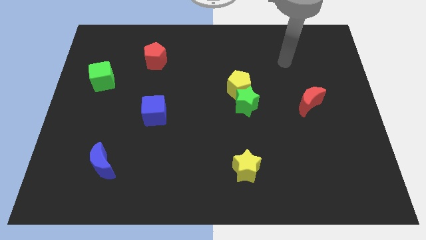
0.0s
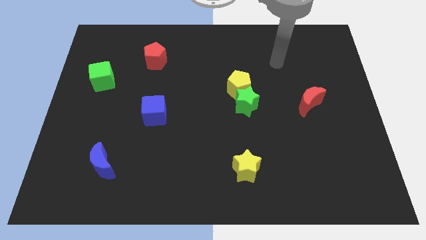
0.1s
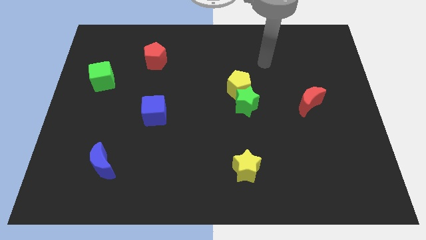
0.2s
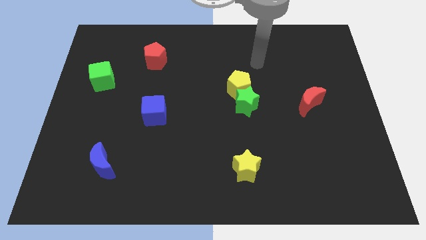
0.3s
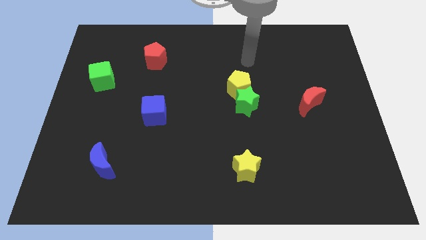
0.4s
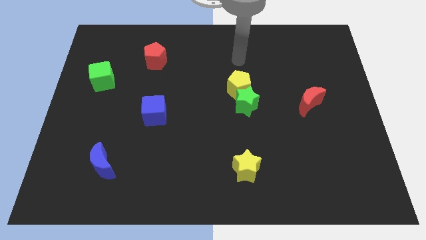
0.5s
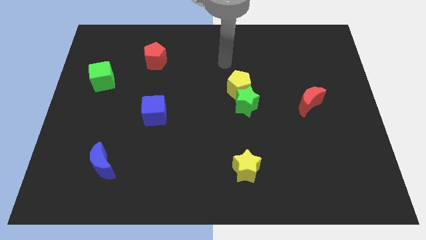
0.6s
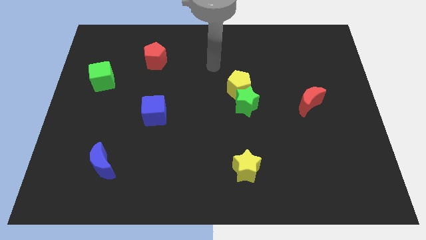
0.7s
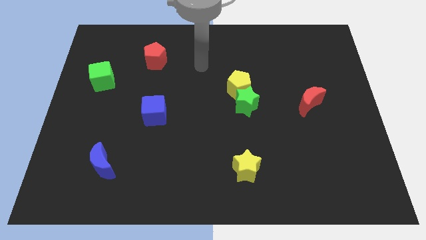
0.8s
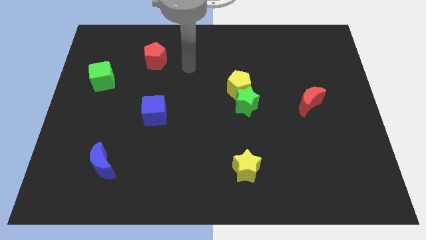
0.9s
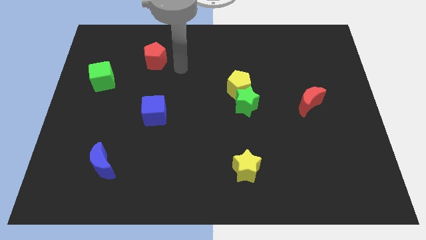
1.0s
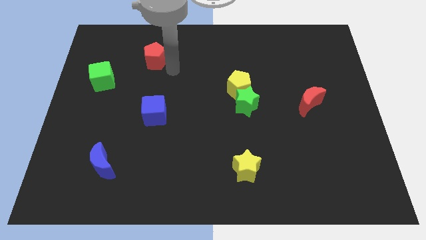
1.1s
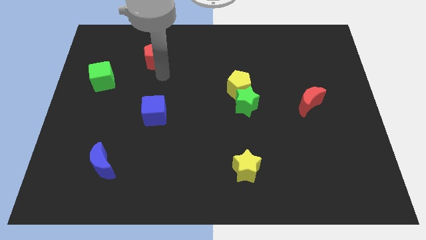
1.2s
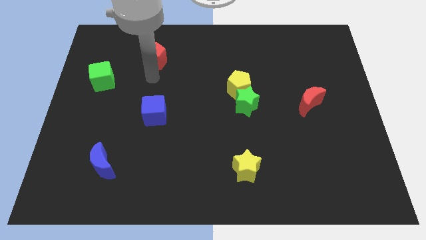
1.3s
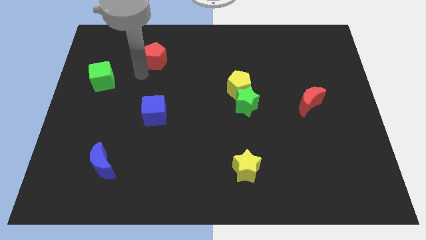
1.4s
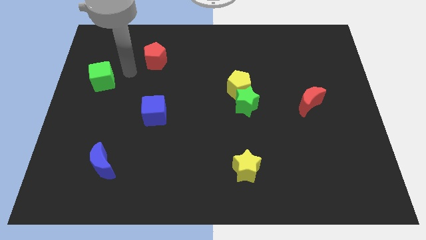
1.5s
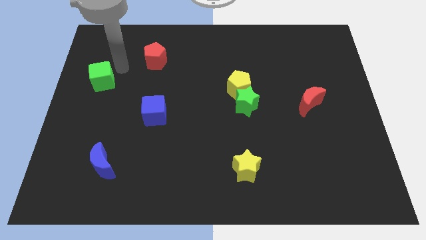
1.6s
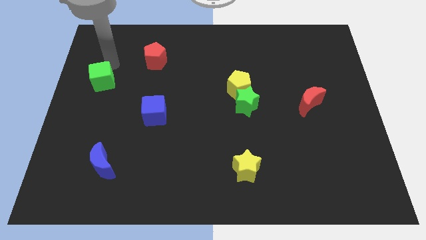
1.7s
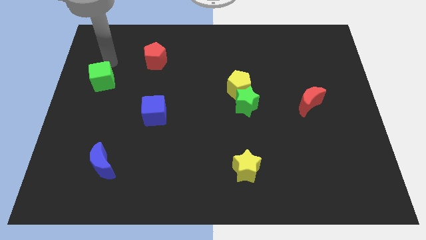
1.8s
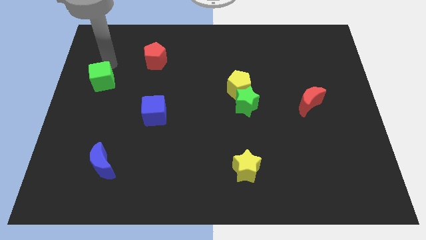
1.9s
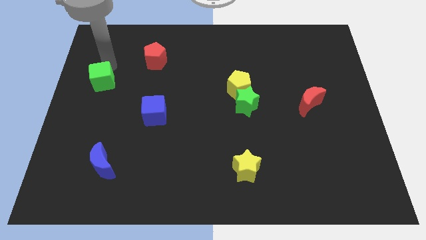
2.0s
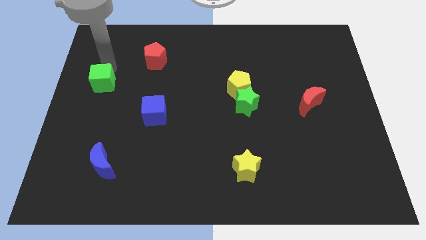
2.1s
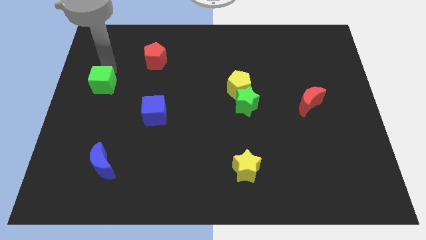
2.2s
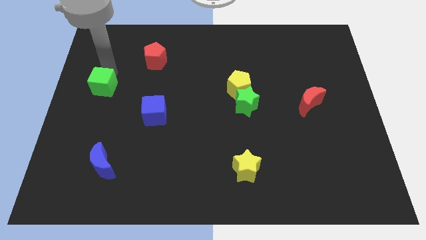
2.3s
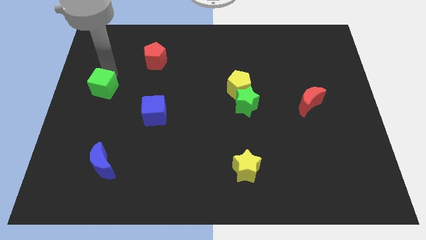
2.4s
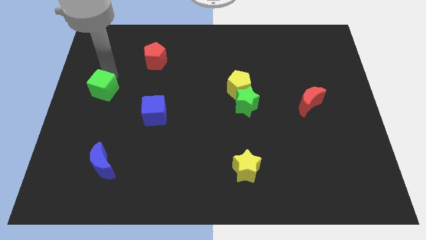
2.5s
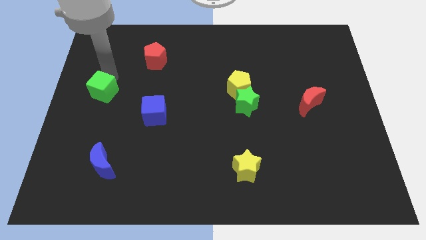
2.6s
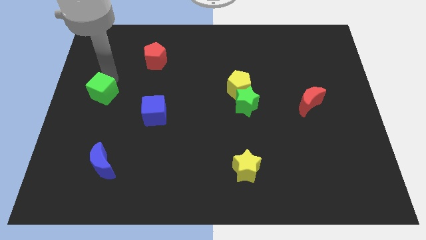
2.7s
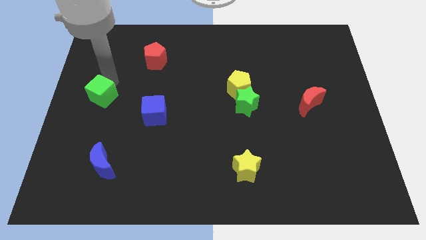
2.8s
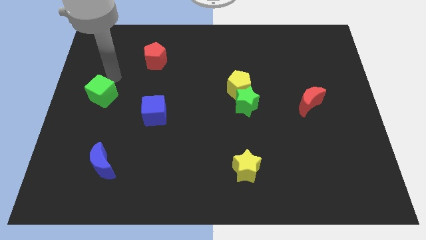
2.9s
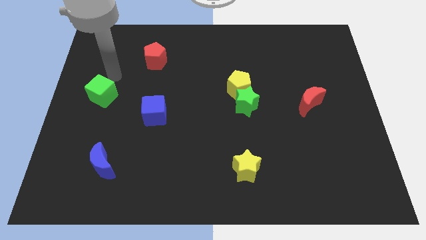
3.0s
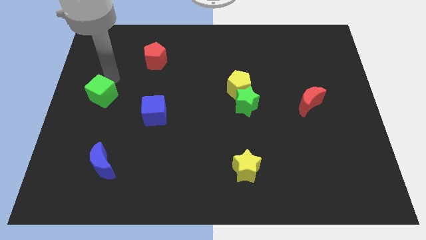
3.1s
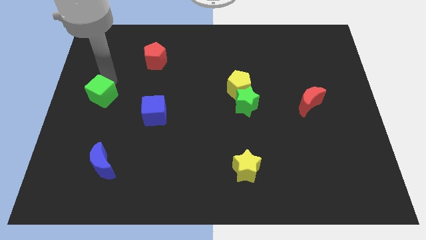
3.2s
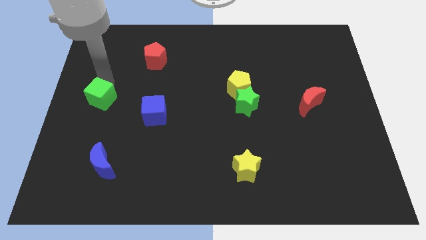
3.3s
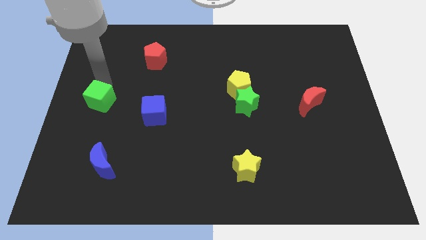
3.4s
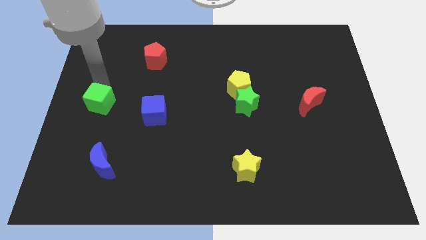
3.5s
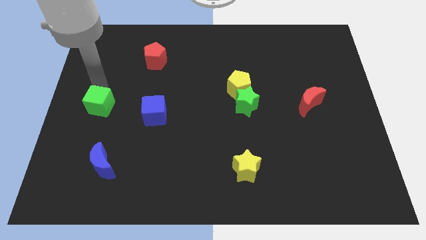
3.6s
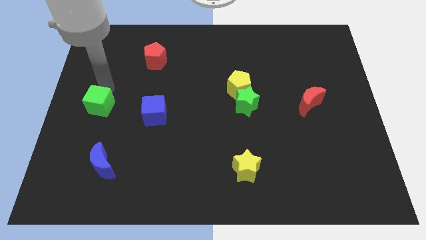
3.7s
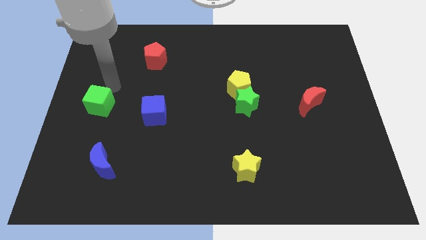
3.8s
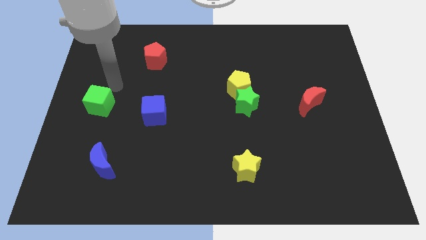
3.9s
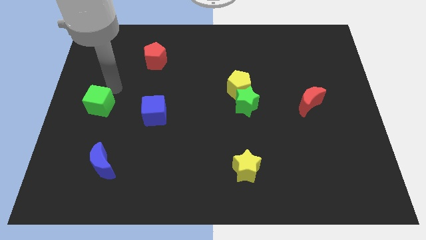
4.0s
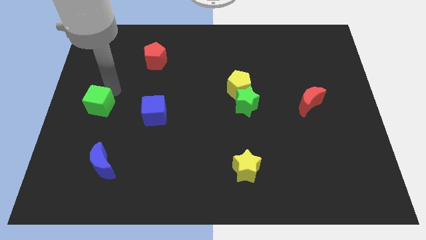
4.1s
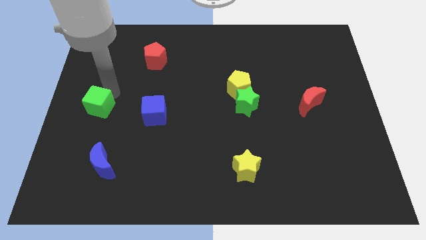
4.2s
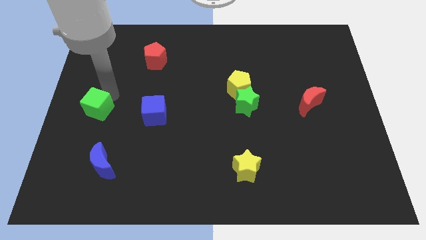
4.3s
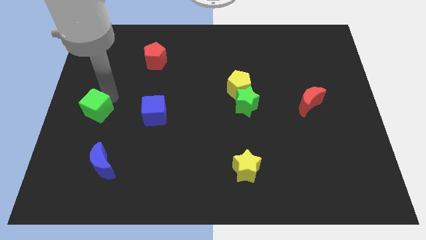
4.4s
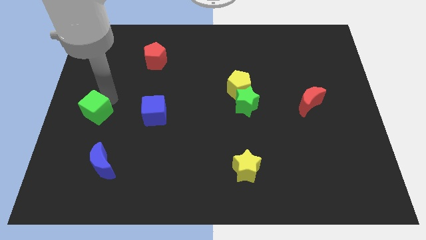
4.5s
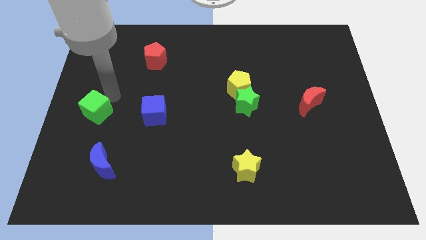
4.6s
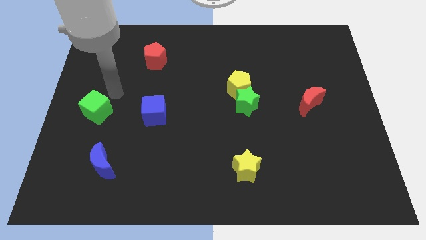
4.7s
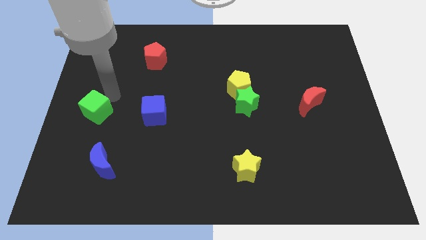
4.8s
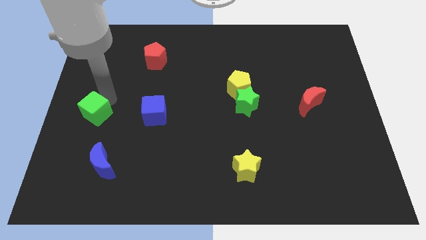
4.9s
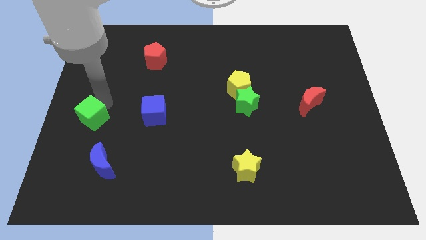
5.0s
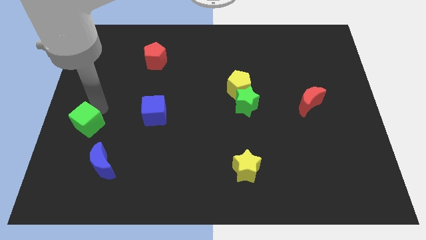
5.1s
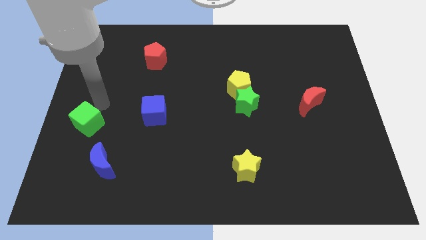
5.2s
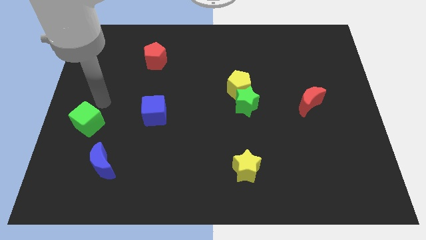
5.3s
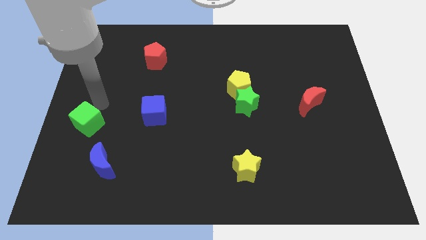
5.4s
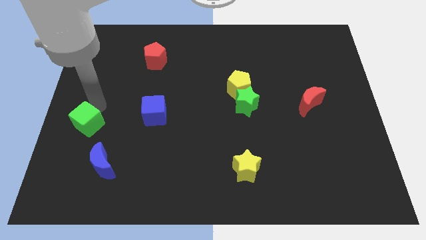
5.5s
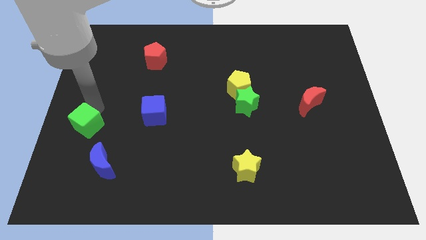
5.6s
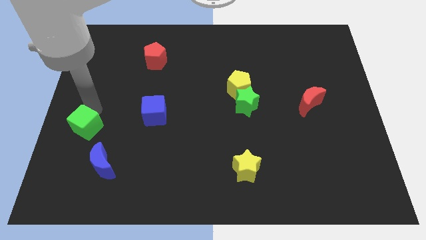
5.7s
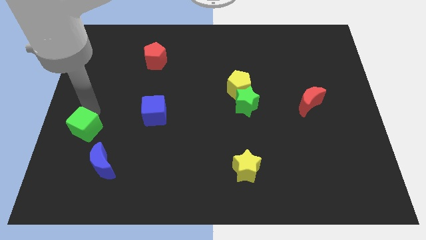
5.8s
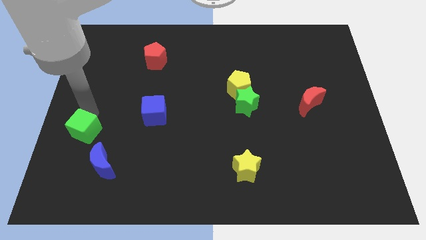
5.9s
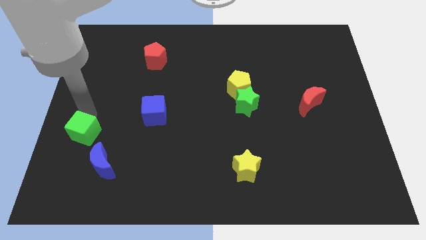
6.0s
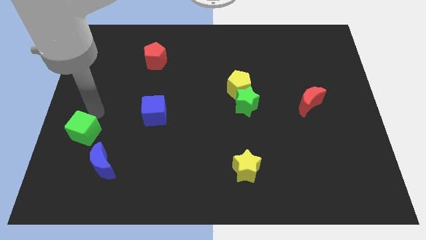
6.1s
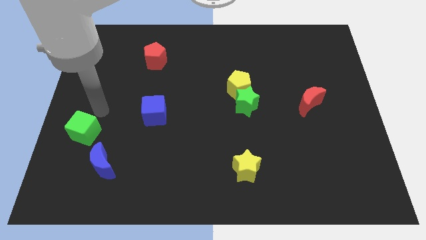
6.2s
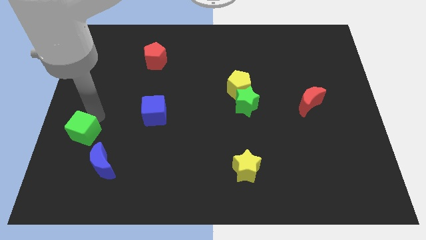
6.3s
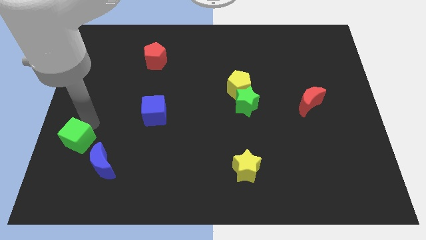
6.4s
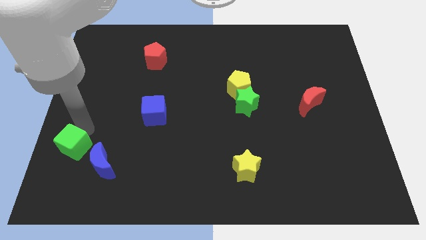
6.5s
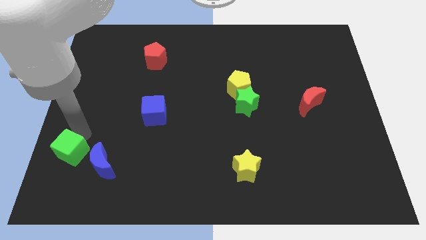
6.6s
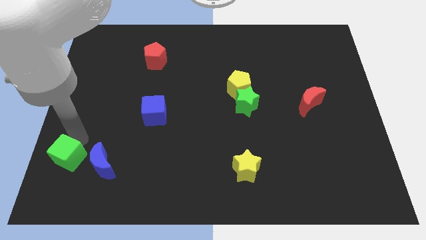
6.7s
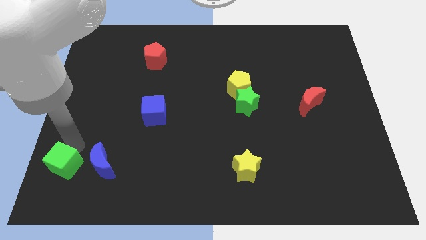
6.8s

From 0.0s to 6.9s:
put the green cube to the bottom left corner

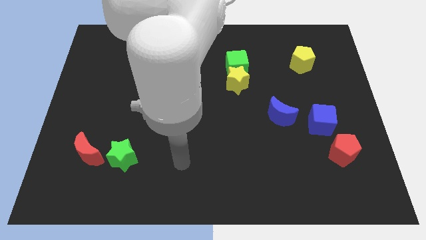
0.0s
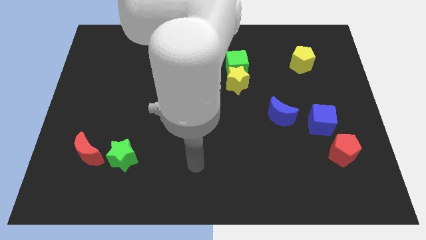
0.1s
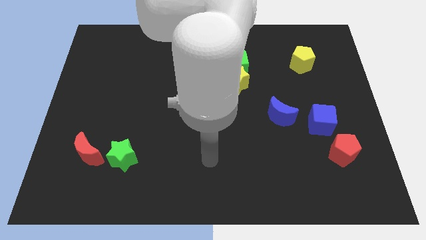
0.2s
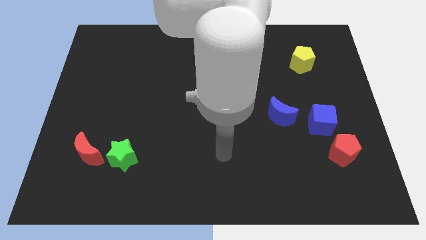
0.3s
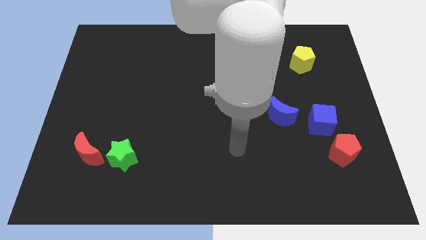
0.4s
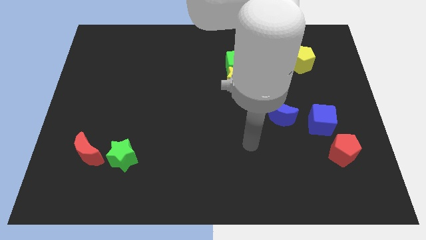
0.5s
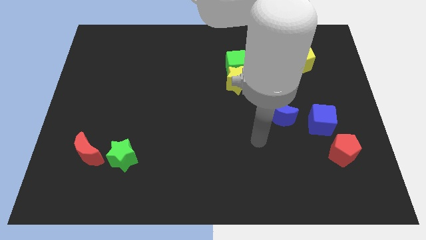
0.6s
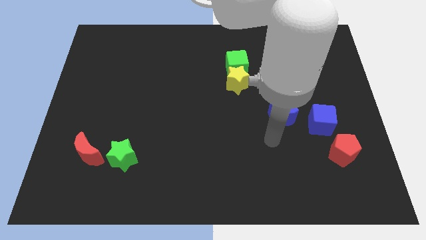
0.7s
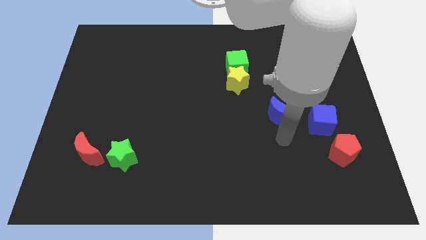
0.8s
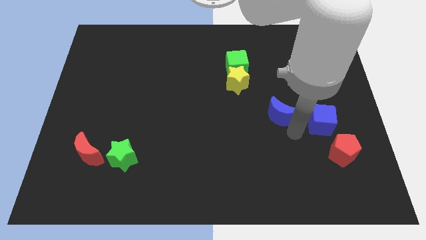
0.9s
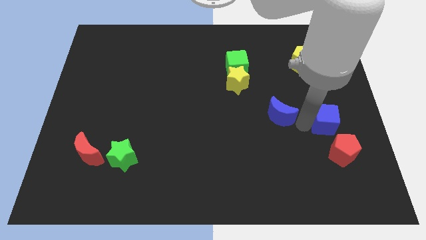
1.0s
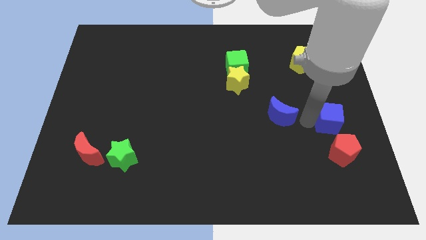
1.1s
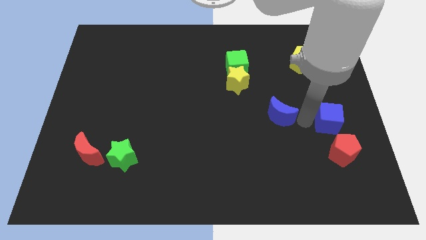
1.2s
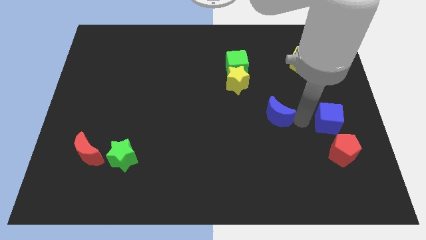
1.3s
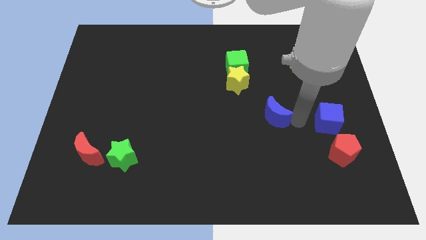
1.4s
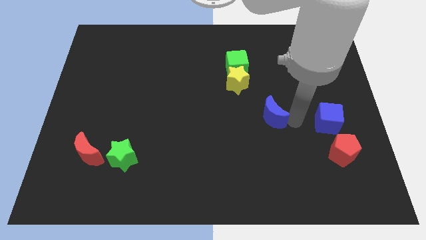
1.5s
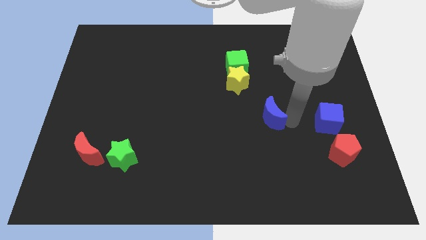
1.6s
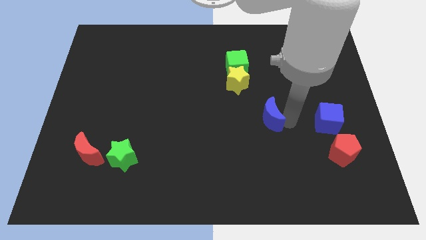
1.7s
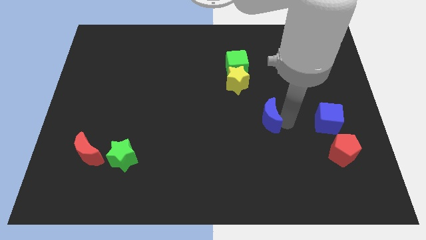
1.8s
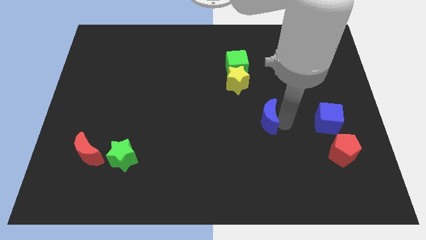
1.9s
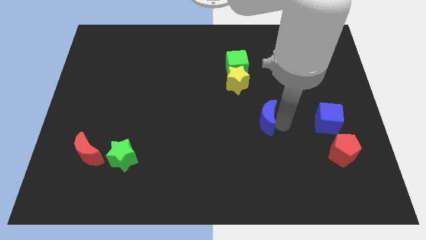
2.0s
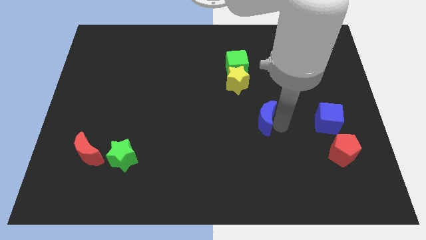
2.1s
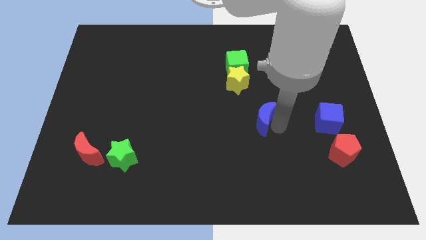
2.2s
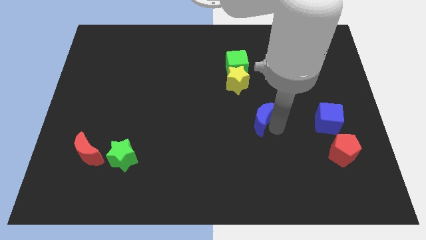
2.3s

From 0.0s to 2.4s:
push the blue moon to the middle of the board
